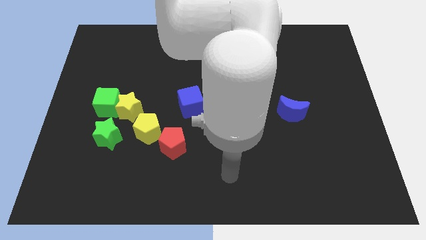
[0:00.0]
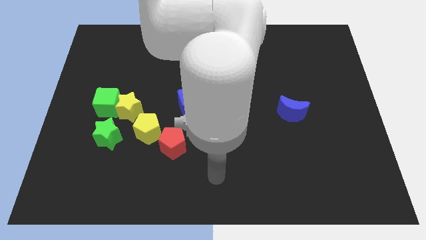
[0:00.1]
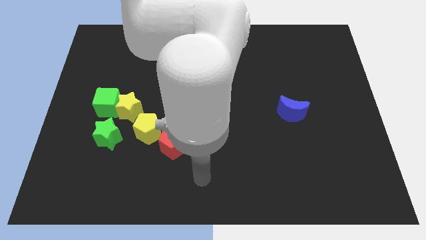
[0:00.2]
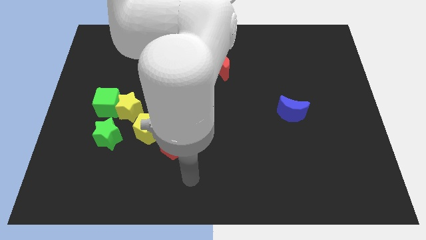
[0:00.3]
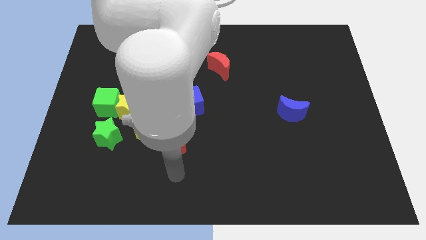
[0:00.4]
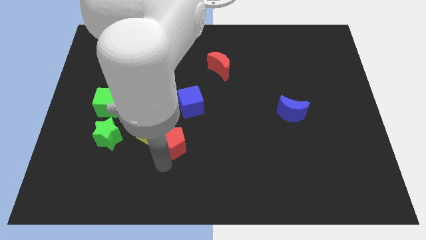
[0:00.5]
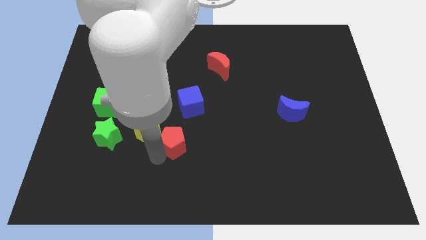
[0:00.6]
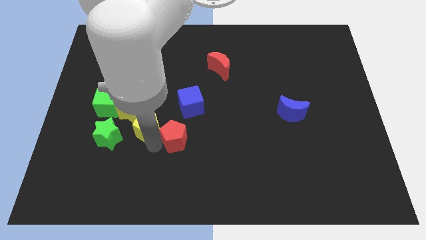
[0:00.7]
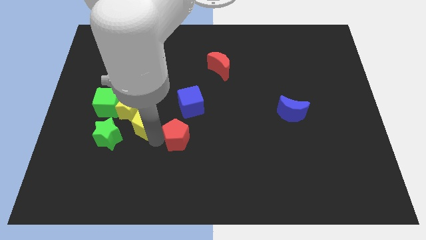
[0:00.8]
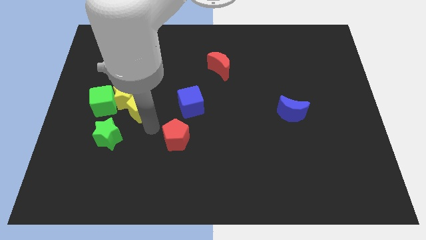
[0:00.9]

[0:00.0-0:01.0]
move the red pentagon away from the yellow pentagon

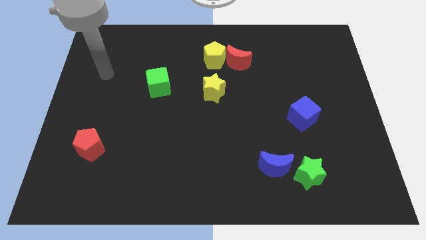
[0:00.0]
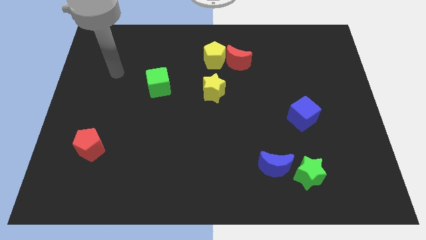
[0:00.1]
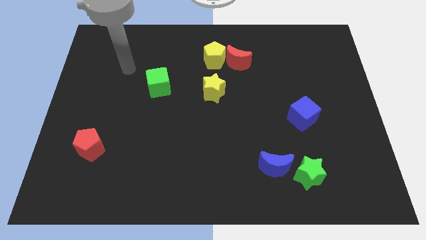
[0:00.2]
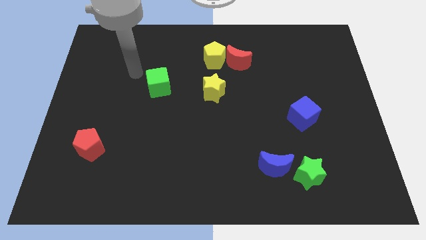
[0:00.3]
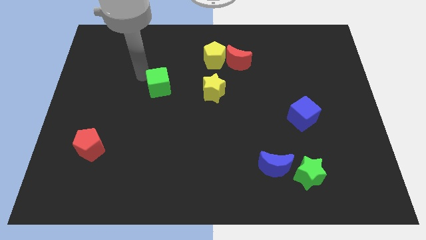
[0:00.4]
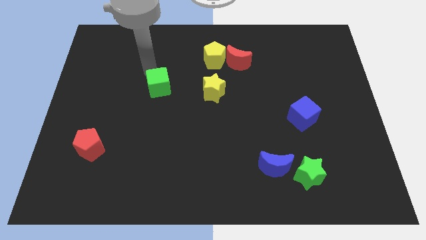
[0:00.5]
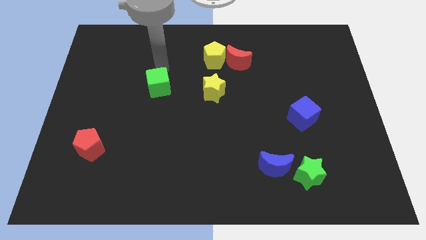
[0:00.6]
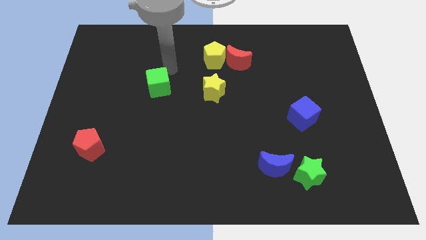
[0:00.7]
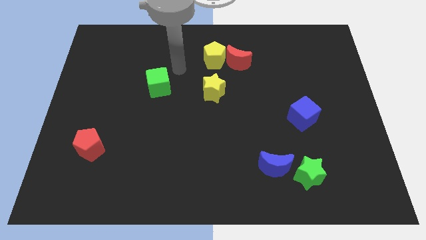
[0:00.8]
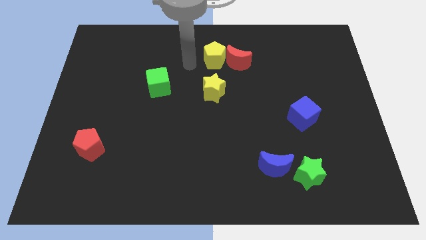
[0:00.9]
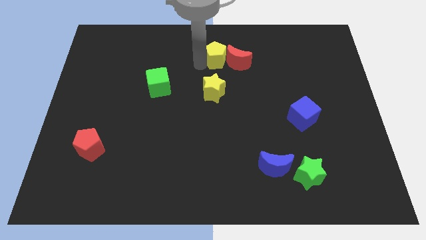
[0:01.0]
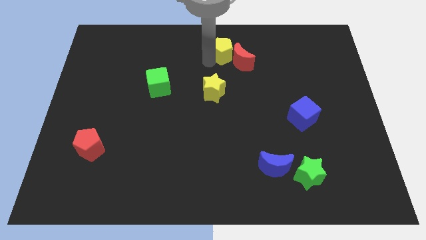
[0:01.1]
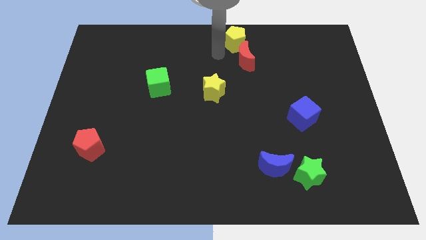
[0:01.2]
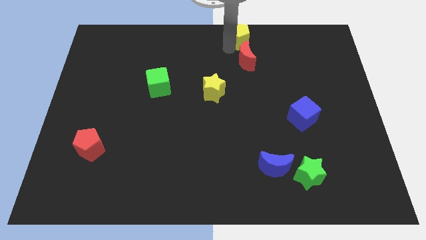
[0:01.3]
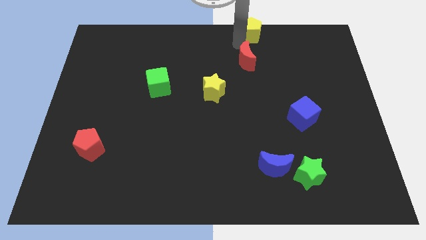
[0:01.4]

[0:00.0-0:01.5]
move the red moon away from the yellow pentagon

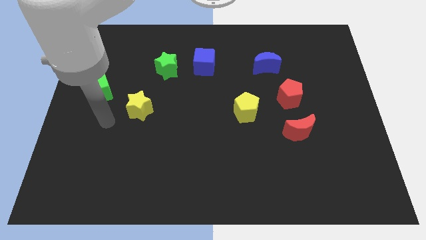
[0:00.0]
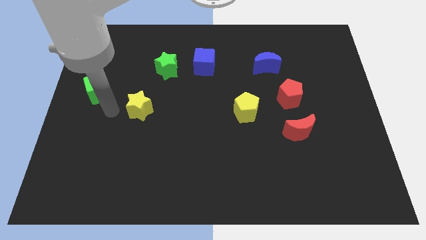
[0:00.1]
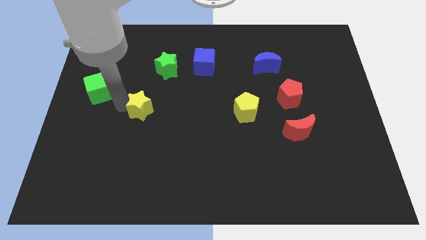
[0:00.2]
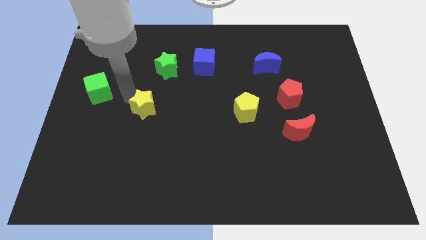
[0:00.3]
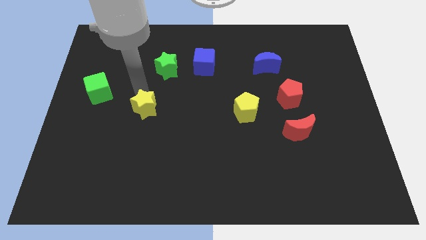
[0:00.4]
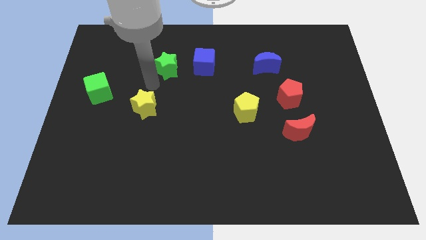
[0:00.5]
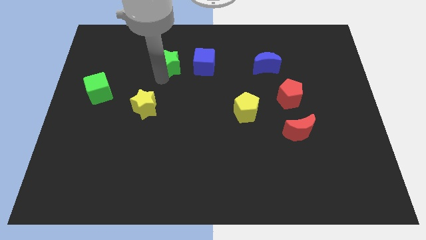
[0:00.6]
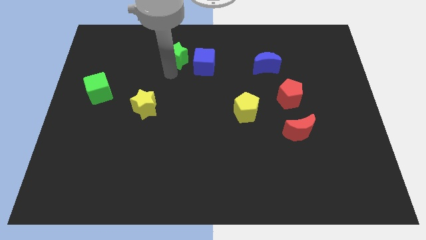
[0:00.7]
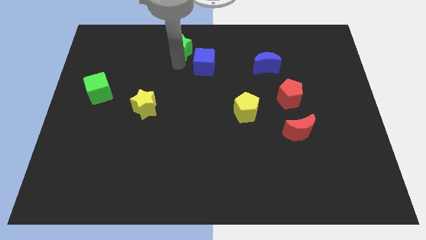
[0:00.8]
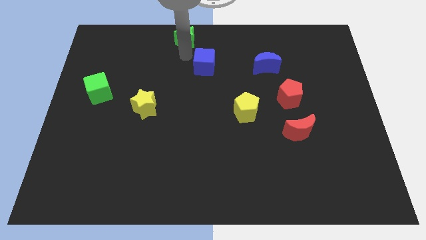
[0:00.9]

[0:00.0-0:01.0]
pull the blue cube apart from the green star

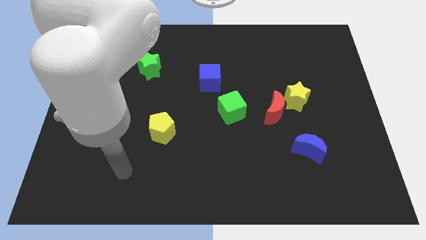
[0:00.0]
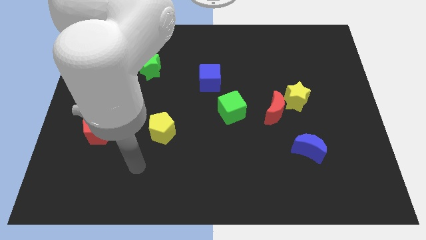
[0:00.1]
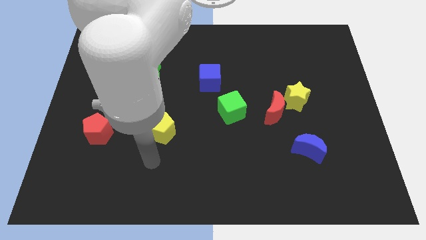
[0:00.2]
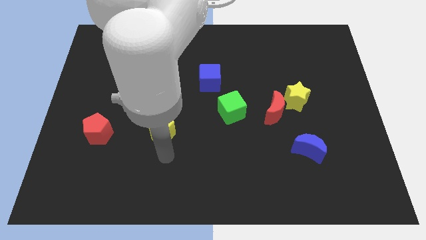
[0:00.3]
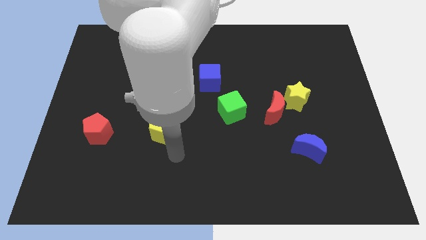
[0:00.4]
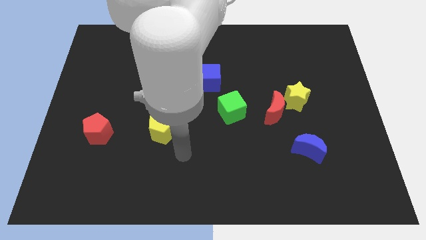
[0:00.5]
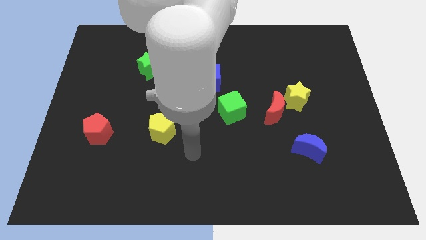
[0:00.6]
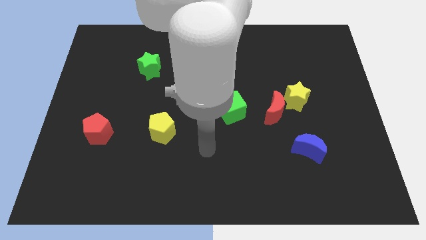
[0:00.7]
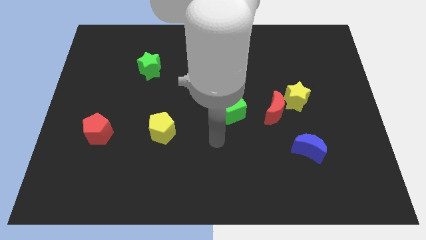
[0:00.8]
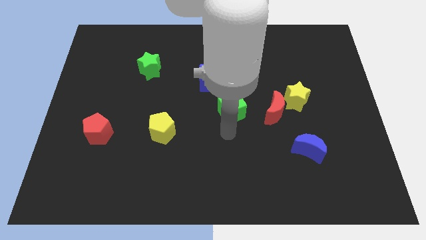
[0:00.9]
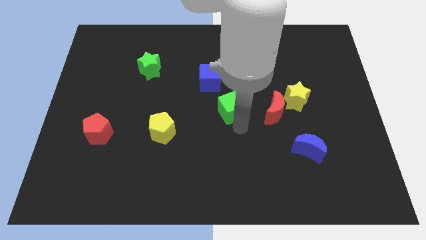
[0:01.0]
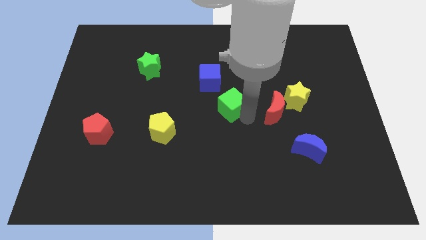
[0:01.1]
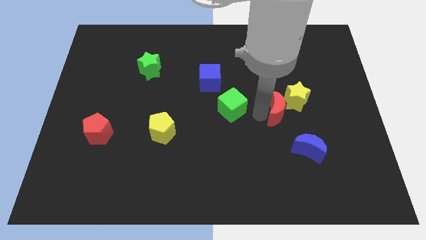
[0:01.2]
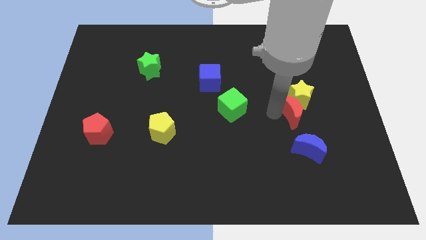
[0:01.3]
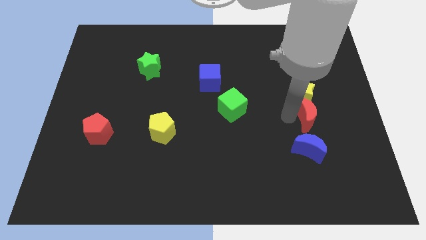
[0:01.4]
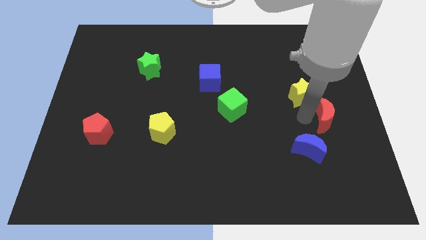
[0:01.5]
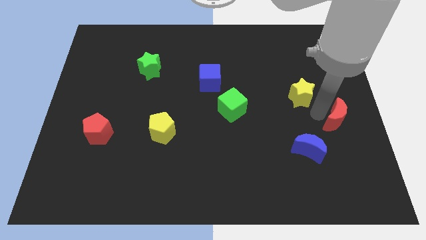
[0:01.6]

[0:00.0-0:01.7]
move the yellow star away from the red moon

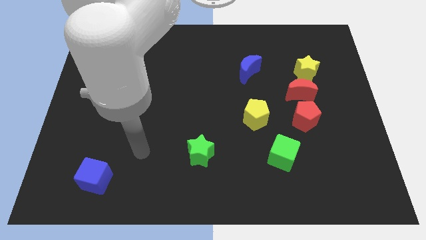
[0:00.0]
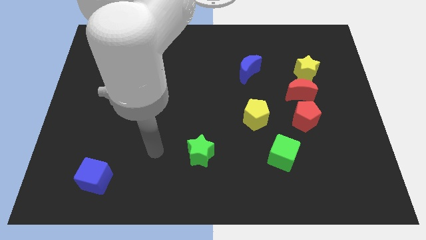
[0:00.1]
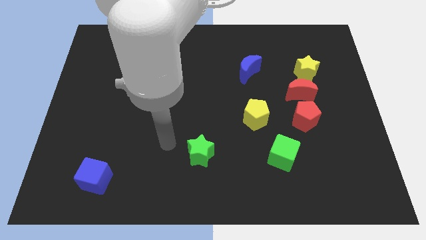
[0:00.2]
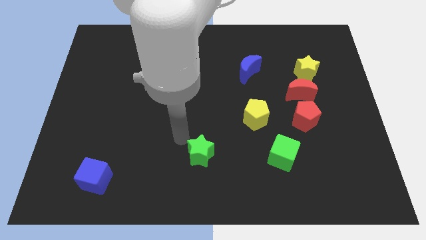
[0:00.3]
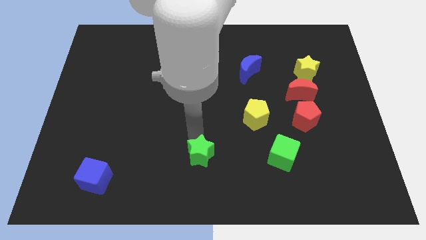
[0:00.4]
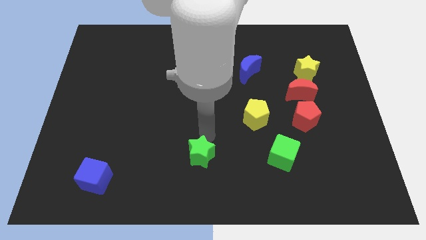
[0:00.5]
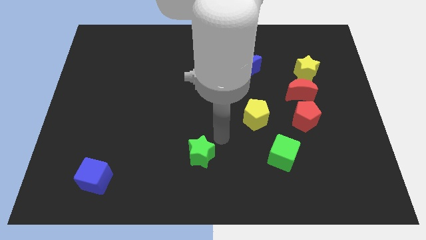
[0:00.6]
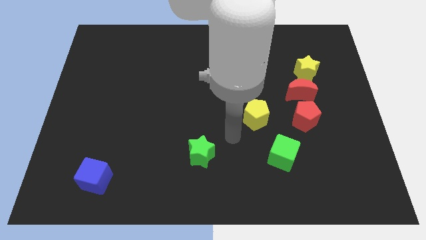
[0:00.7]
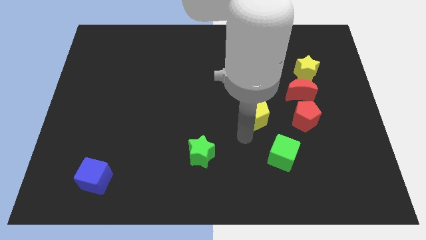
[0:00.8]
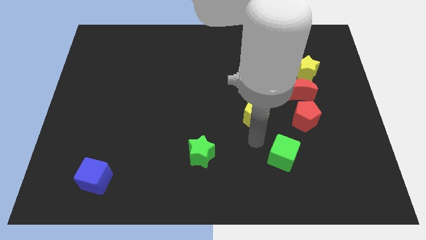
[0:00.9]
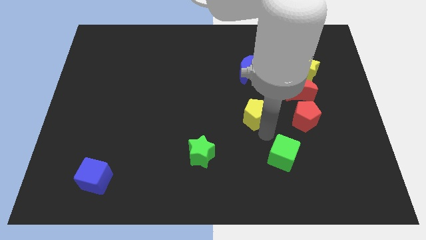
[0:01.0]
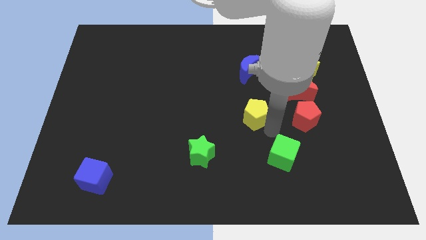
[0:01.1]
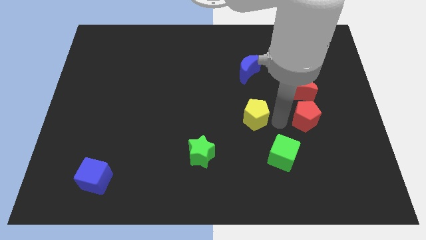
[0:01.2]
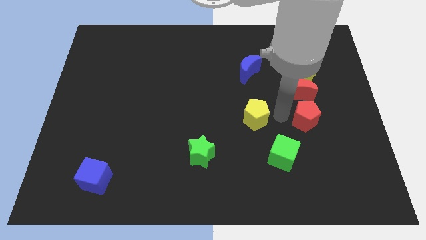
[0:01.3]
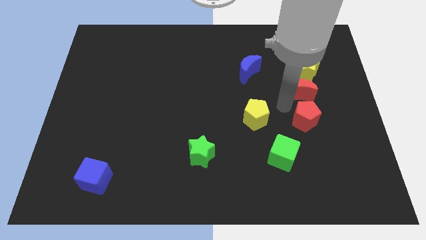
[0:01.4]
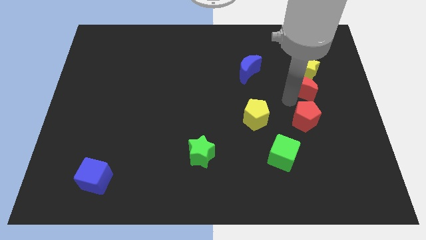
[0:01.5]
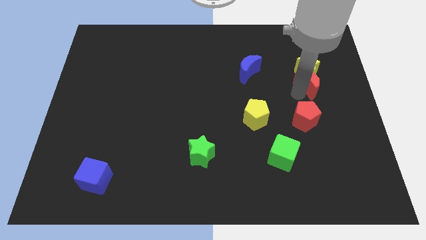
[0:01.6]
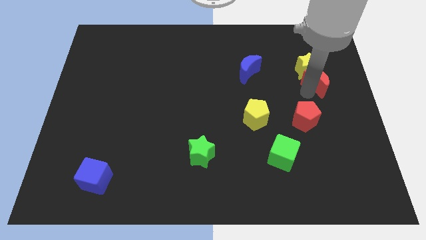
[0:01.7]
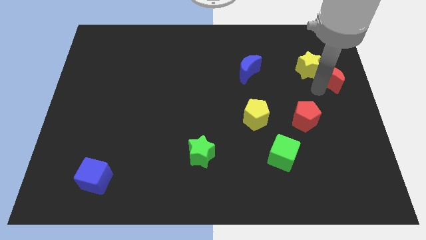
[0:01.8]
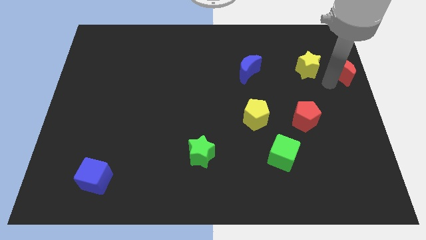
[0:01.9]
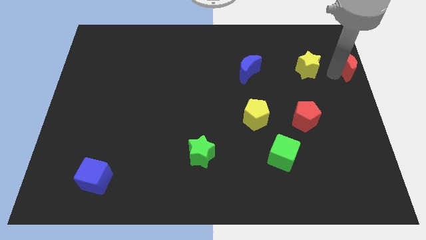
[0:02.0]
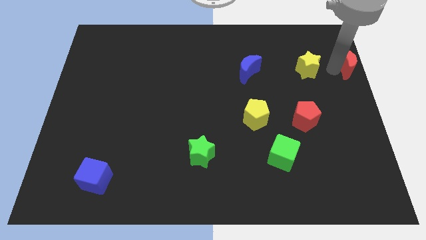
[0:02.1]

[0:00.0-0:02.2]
separate the yellow star from the red moon

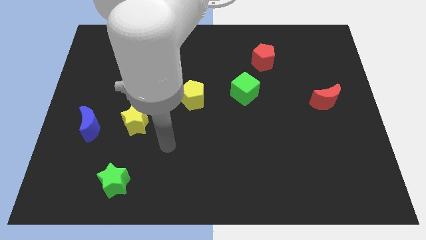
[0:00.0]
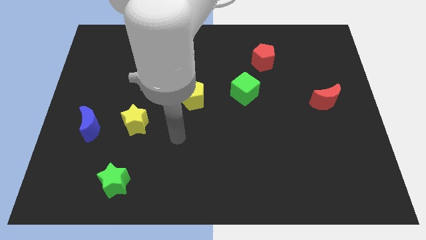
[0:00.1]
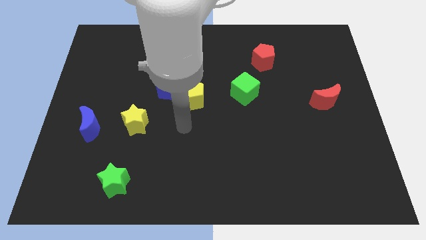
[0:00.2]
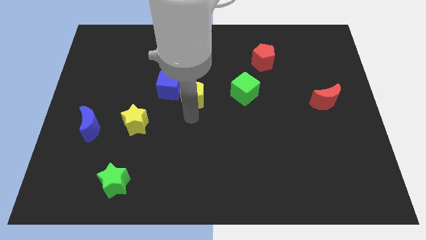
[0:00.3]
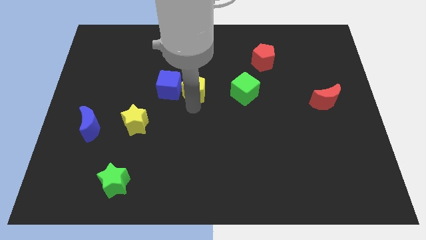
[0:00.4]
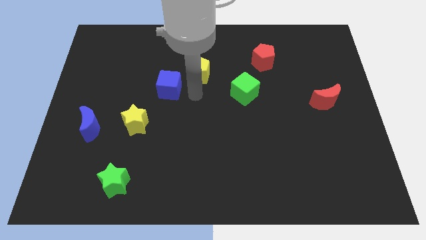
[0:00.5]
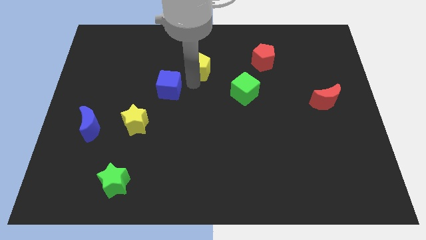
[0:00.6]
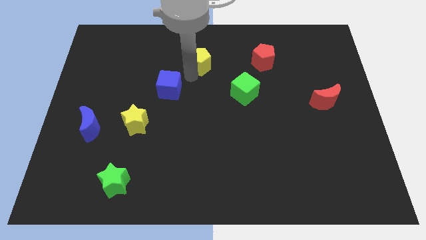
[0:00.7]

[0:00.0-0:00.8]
pull the blue cube apart from the yellow pentagon

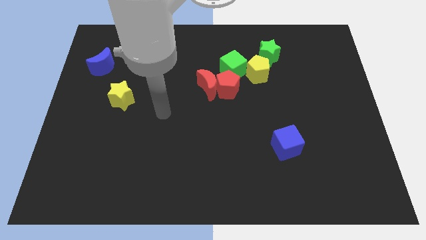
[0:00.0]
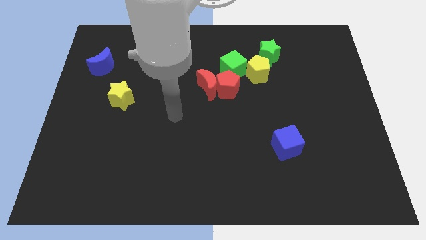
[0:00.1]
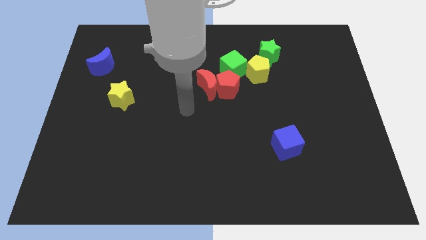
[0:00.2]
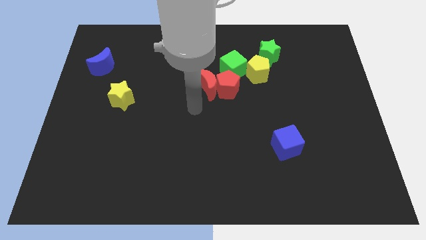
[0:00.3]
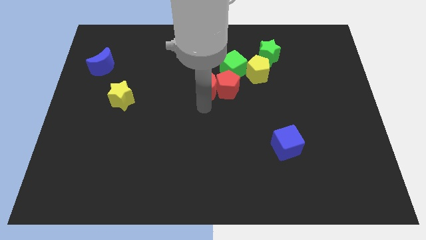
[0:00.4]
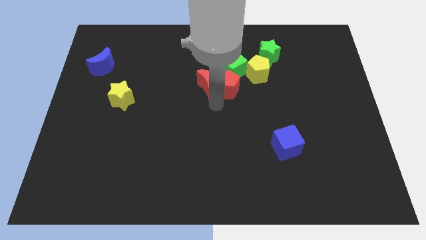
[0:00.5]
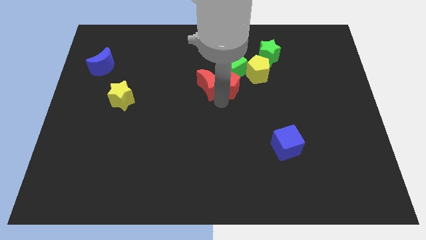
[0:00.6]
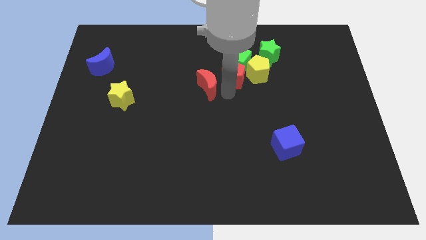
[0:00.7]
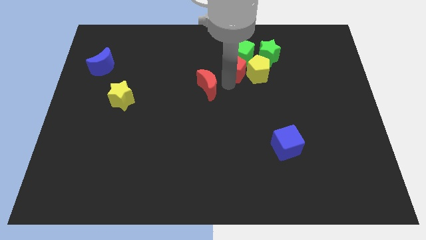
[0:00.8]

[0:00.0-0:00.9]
pull the red moon apart from the red pentagon and green cube

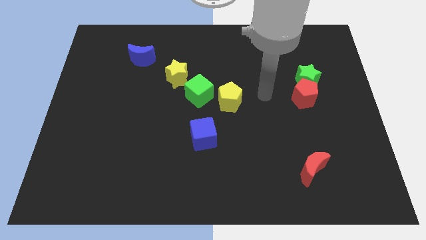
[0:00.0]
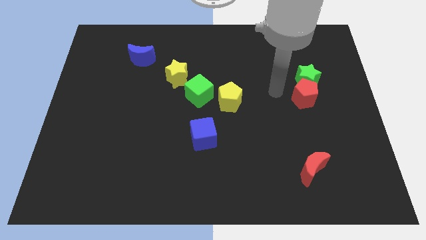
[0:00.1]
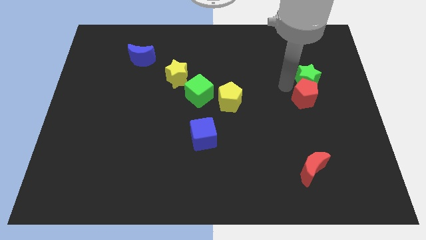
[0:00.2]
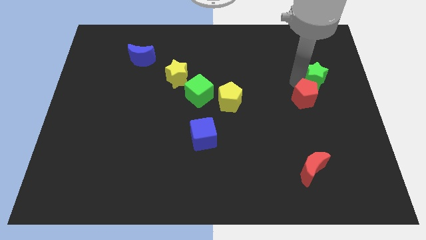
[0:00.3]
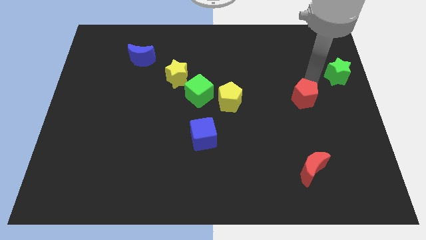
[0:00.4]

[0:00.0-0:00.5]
pull the red pentagon apart from the green star
